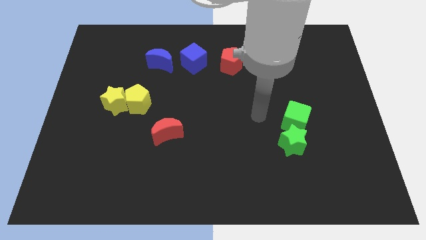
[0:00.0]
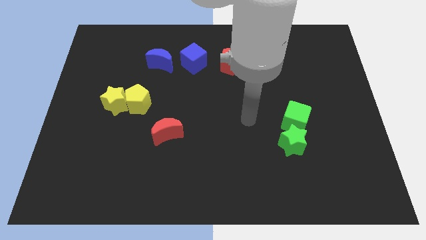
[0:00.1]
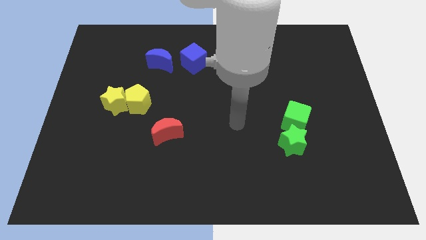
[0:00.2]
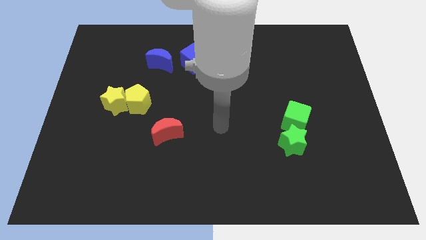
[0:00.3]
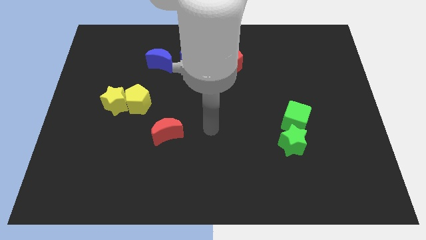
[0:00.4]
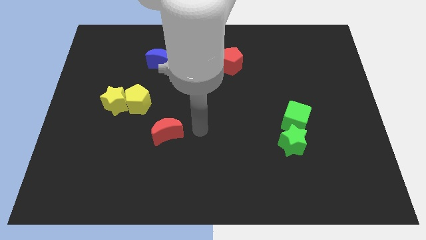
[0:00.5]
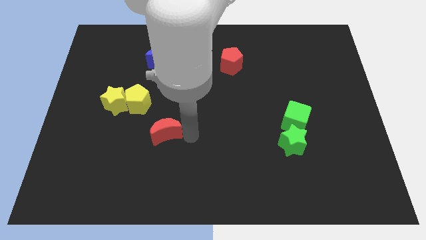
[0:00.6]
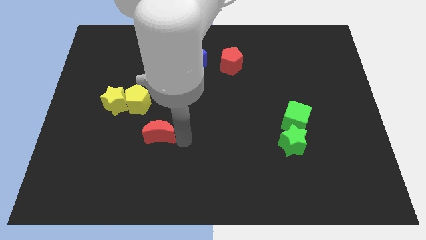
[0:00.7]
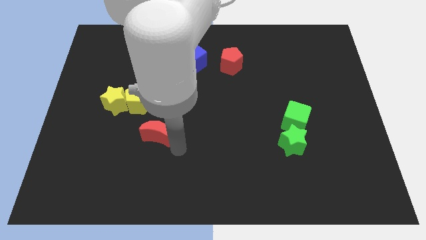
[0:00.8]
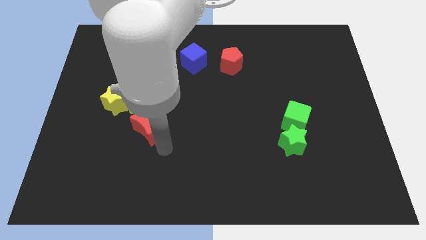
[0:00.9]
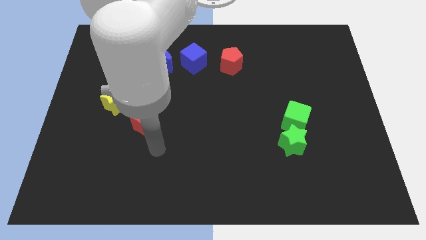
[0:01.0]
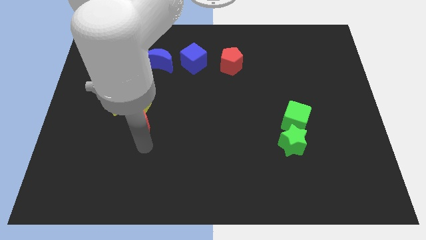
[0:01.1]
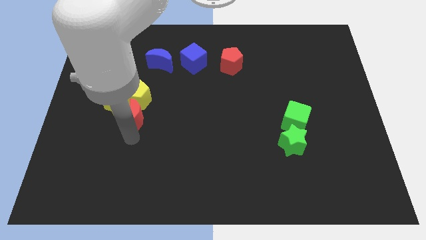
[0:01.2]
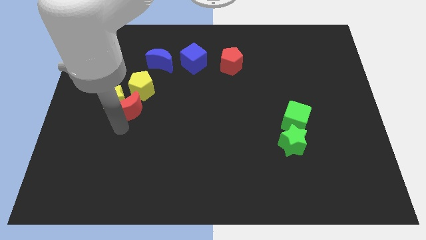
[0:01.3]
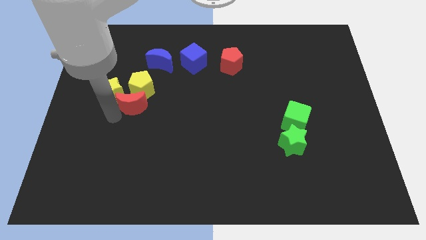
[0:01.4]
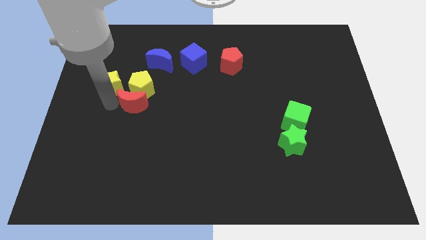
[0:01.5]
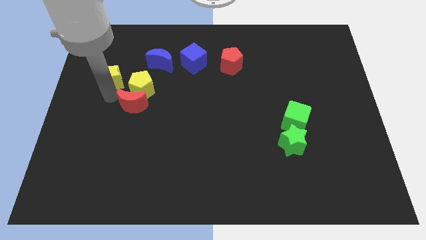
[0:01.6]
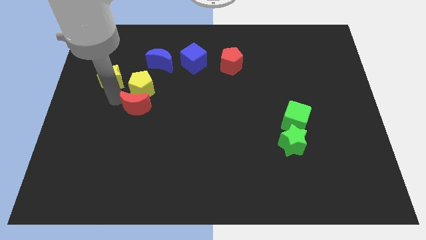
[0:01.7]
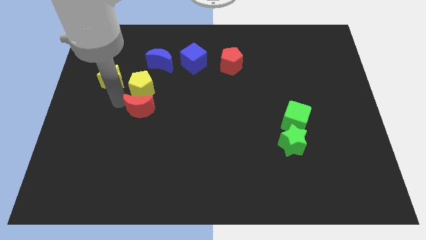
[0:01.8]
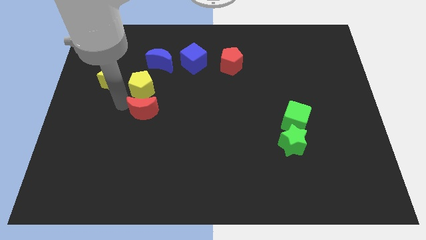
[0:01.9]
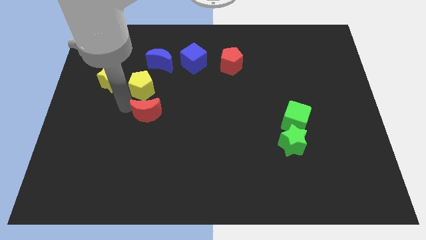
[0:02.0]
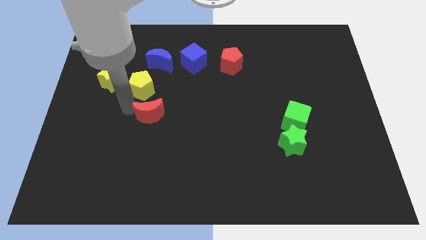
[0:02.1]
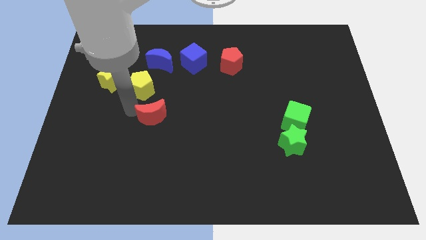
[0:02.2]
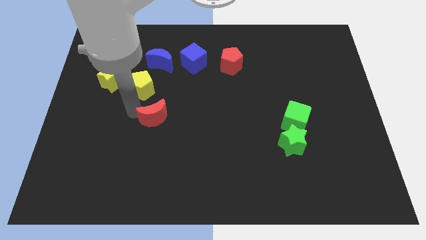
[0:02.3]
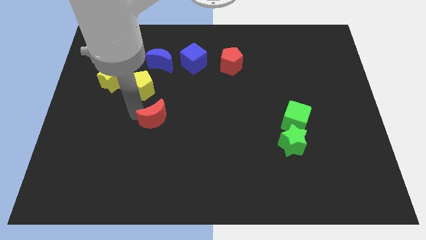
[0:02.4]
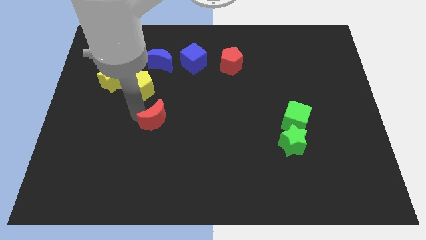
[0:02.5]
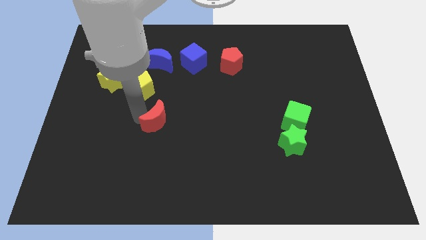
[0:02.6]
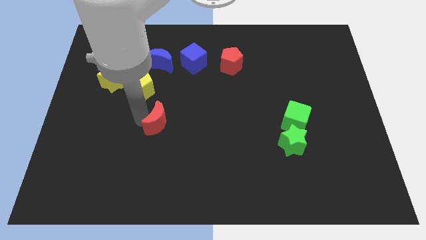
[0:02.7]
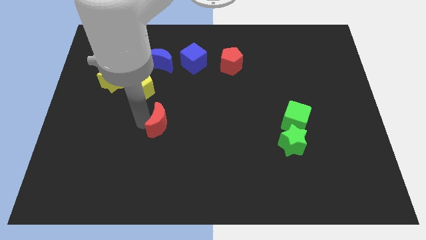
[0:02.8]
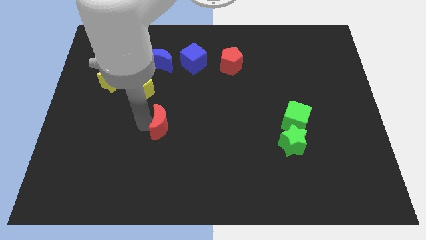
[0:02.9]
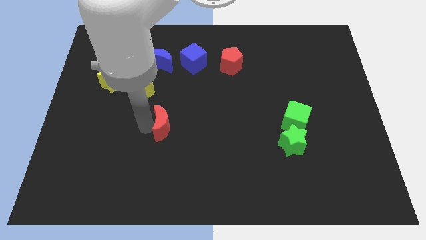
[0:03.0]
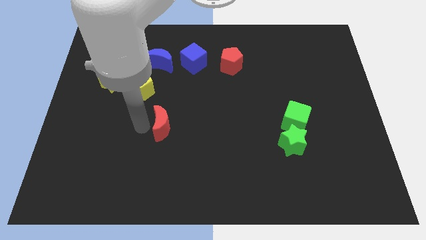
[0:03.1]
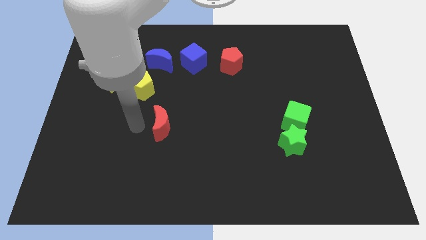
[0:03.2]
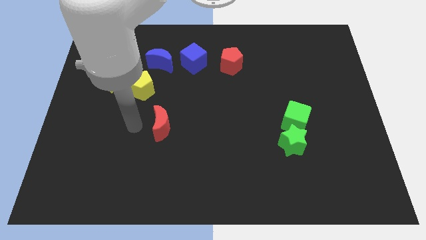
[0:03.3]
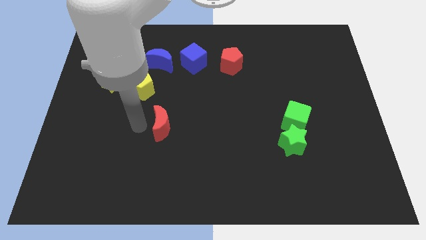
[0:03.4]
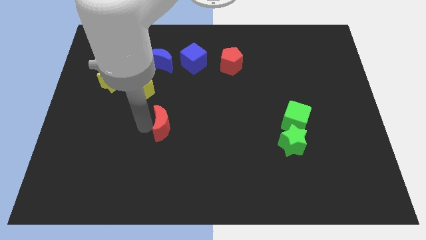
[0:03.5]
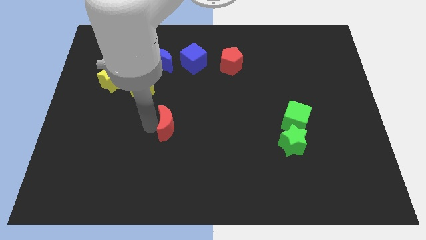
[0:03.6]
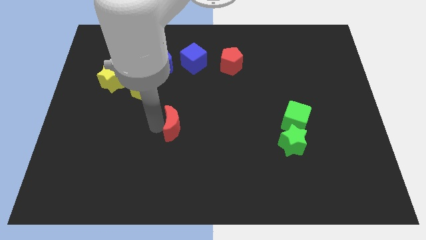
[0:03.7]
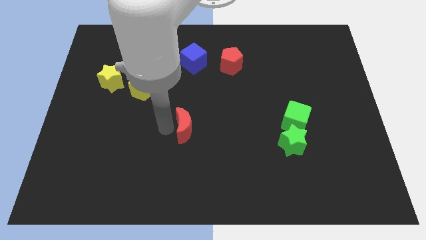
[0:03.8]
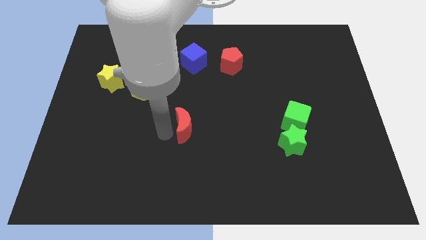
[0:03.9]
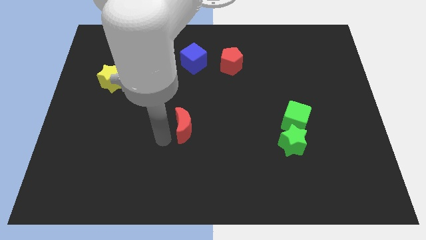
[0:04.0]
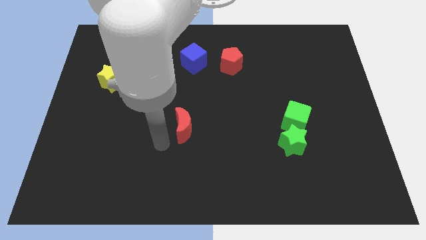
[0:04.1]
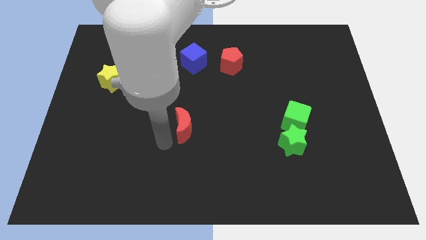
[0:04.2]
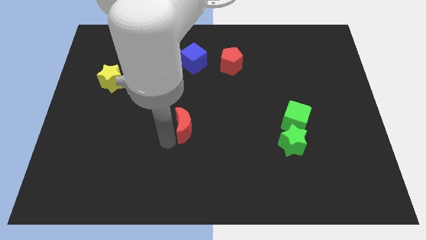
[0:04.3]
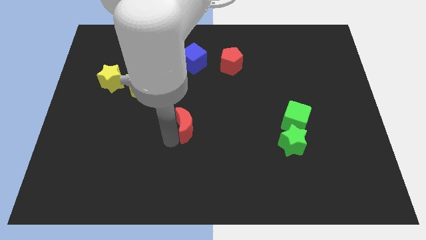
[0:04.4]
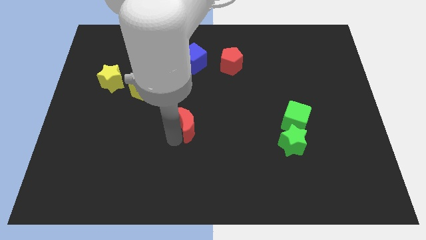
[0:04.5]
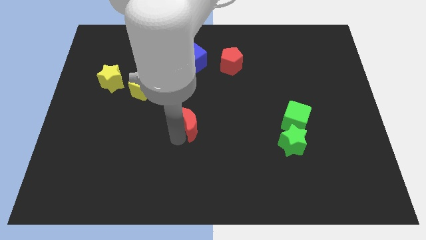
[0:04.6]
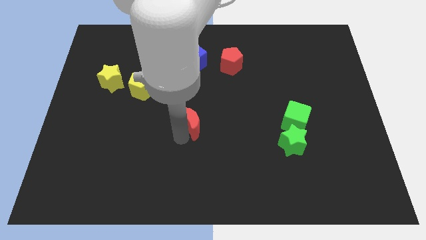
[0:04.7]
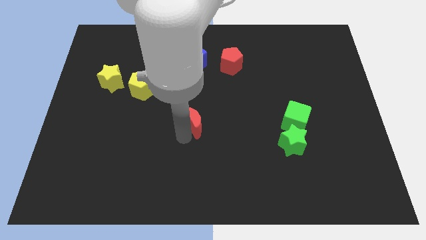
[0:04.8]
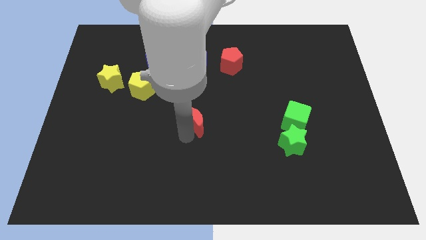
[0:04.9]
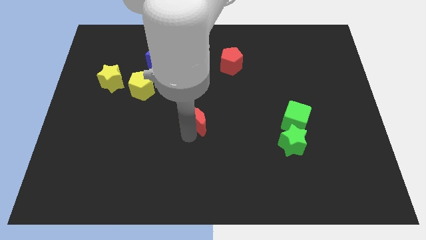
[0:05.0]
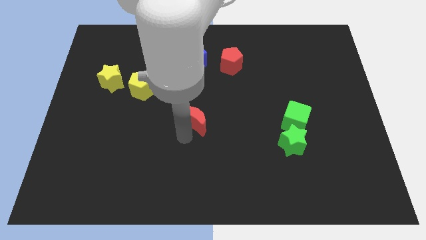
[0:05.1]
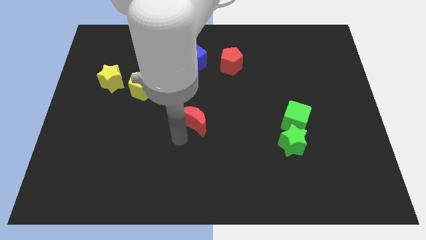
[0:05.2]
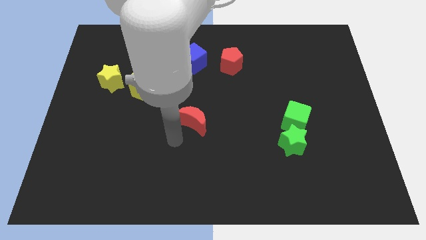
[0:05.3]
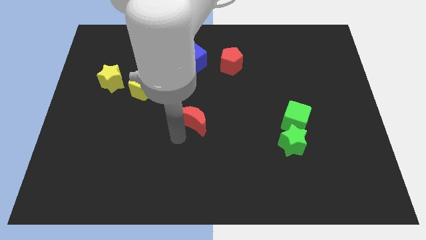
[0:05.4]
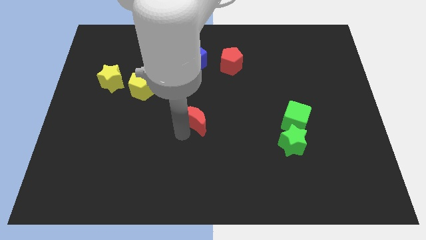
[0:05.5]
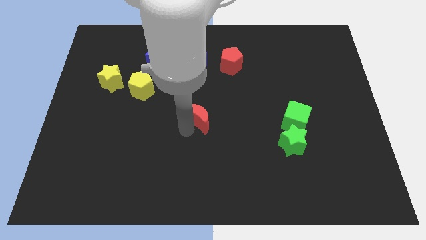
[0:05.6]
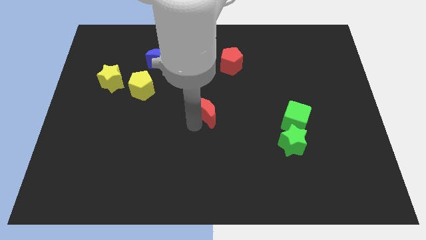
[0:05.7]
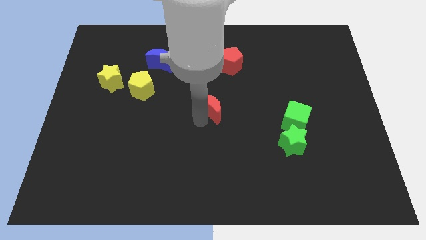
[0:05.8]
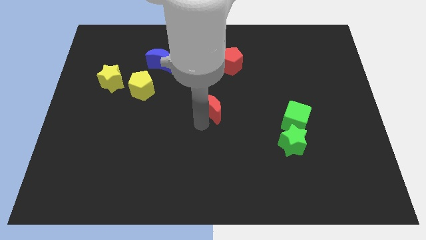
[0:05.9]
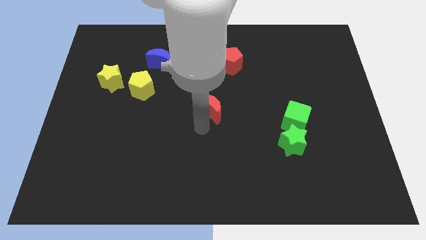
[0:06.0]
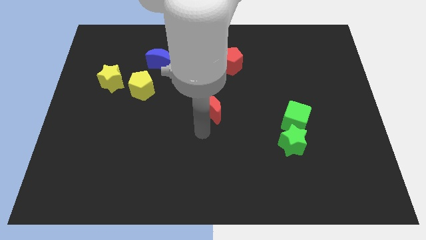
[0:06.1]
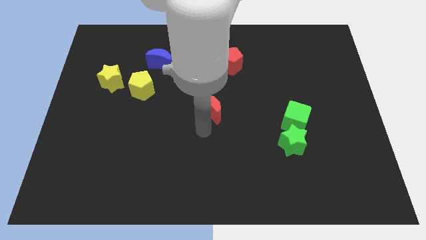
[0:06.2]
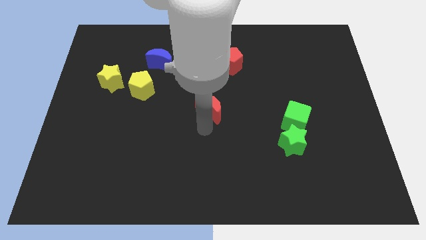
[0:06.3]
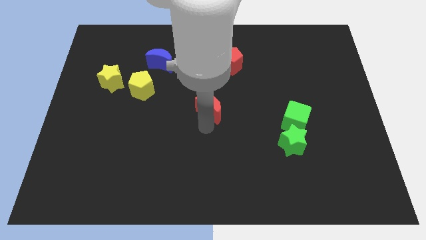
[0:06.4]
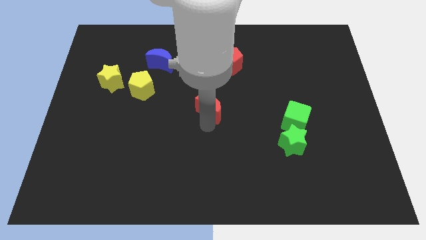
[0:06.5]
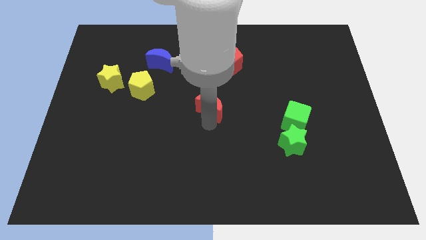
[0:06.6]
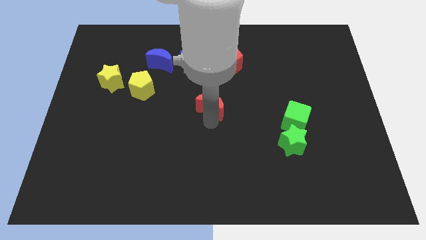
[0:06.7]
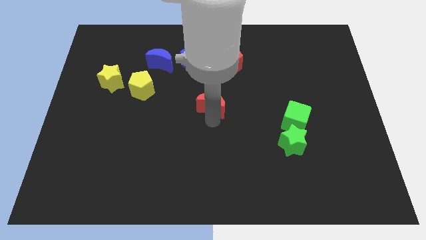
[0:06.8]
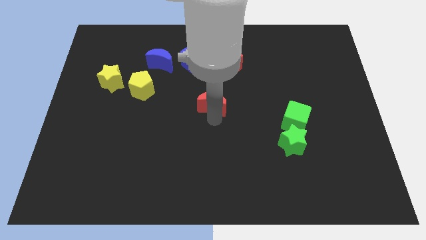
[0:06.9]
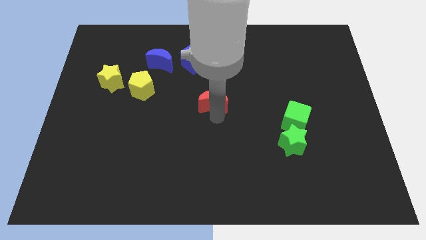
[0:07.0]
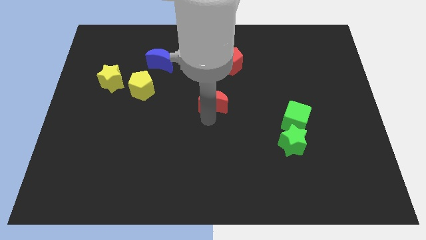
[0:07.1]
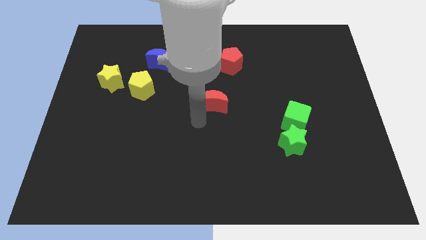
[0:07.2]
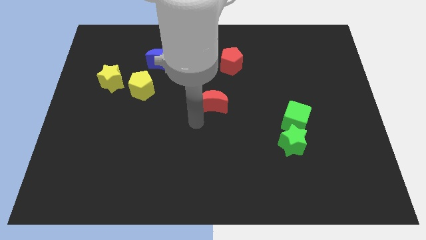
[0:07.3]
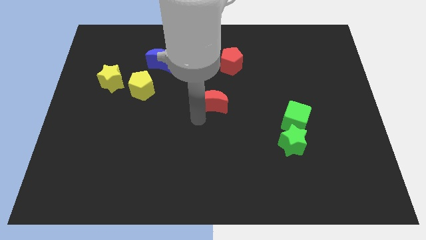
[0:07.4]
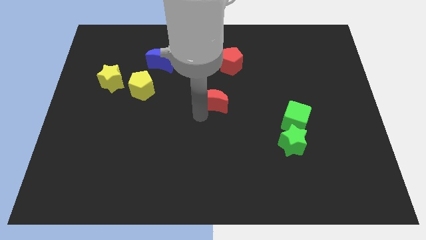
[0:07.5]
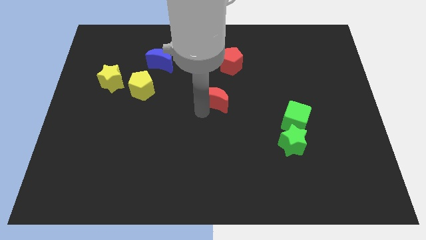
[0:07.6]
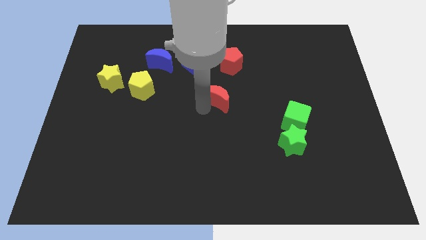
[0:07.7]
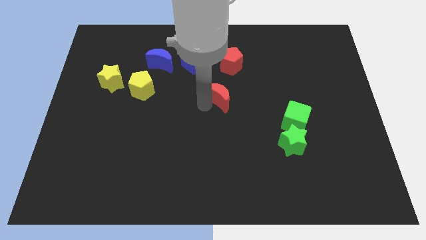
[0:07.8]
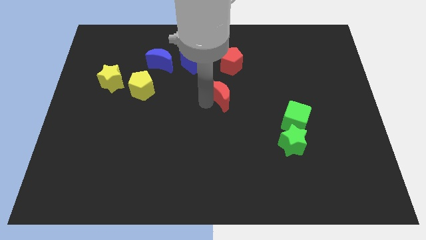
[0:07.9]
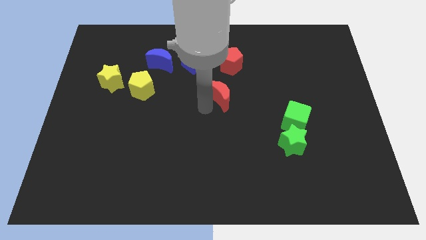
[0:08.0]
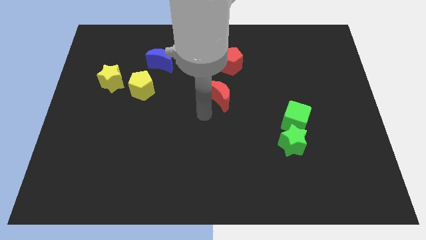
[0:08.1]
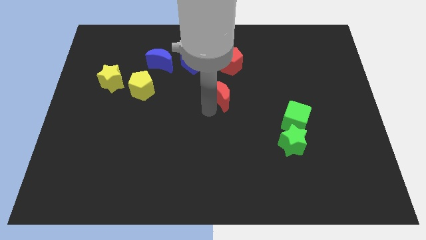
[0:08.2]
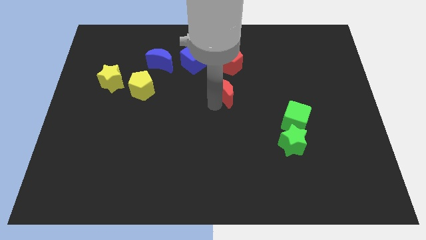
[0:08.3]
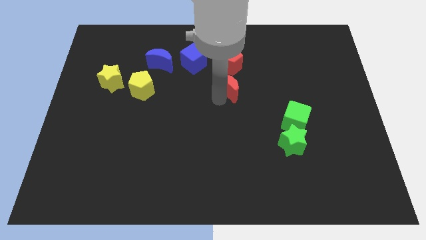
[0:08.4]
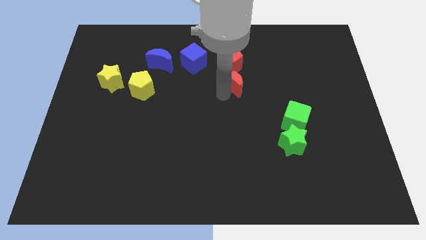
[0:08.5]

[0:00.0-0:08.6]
slide the red moon diagonally upwards and right
